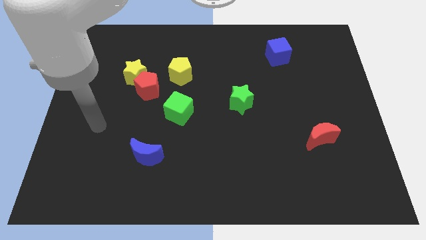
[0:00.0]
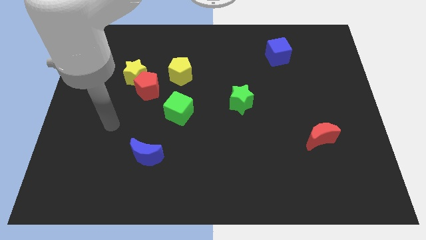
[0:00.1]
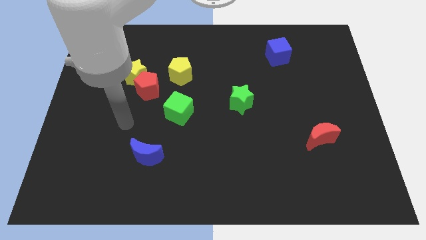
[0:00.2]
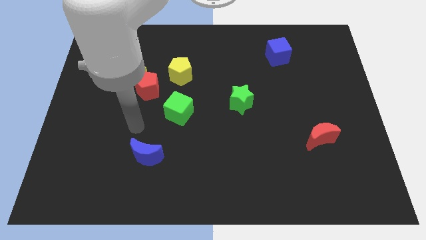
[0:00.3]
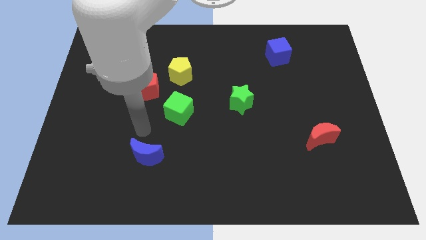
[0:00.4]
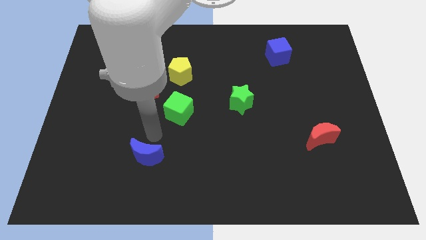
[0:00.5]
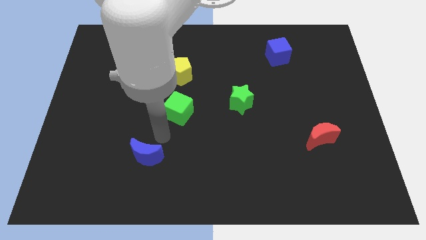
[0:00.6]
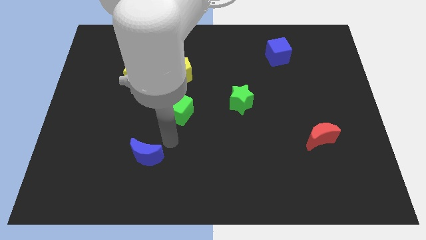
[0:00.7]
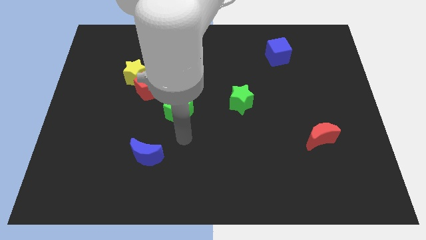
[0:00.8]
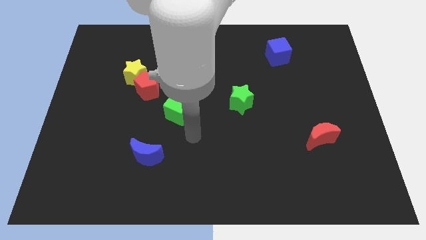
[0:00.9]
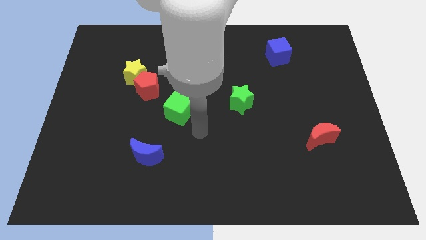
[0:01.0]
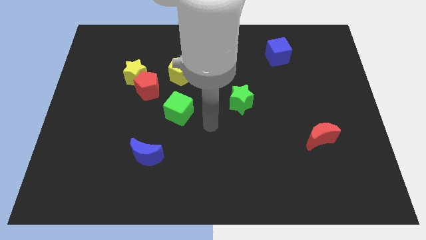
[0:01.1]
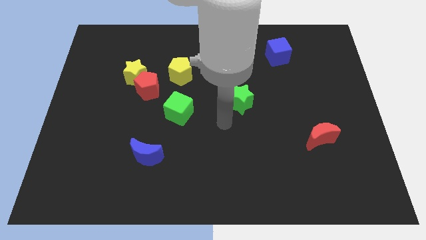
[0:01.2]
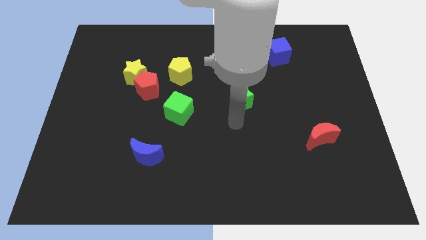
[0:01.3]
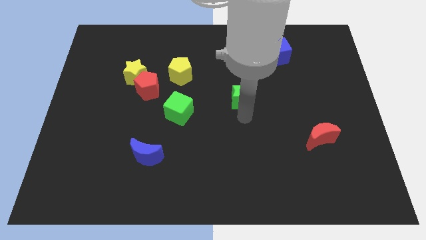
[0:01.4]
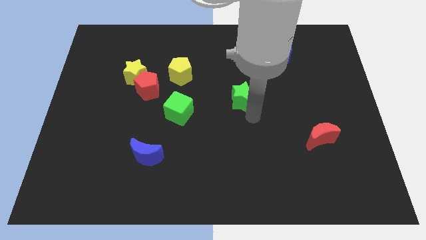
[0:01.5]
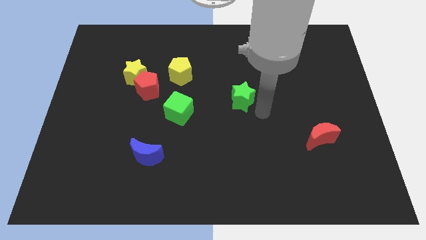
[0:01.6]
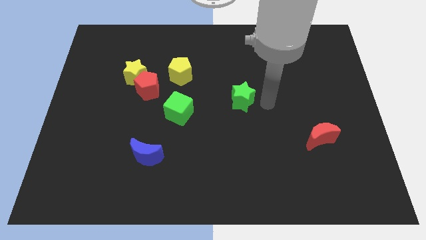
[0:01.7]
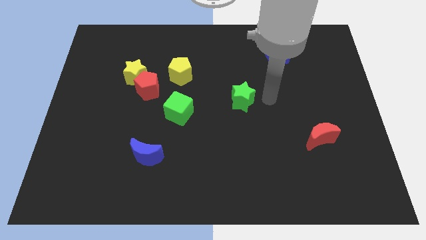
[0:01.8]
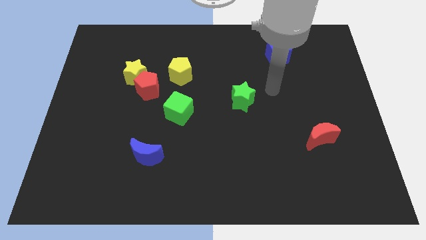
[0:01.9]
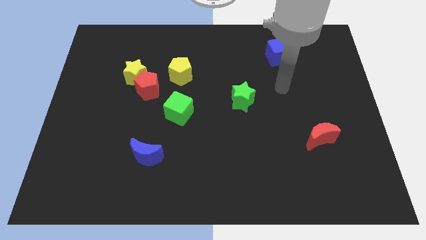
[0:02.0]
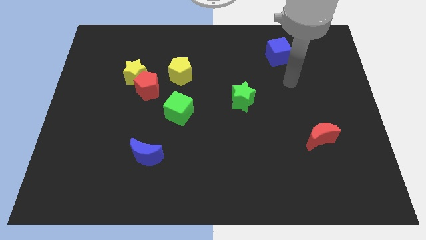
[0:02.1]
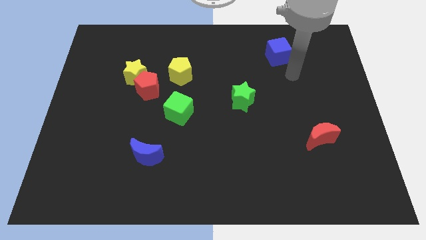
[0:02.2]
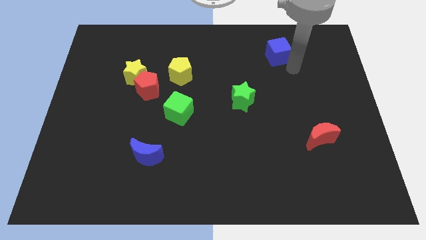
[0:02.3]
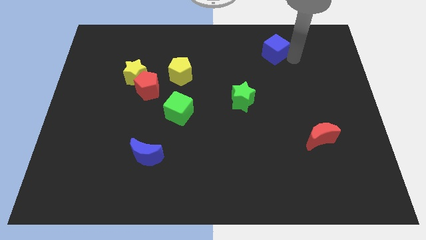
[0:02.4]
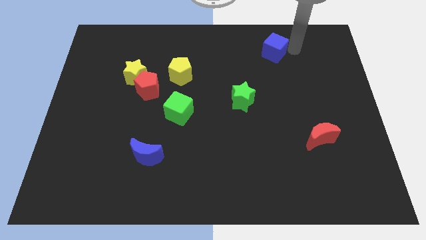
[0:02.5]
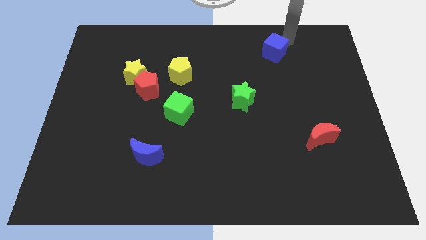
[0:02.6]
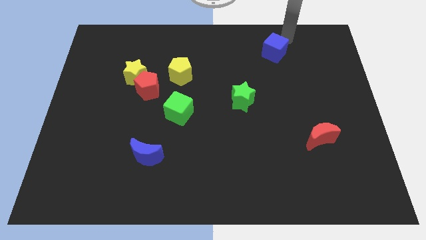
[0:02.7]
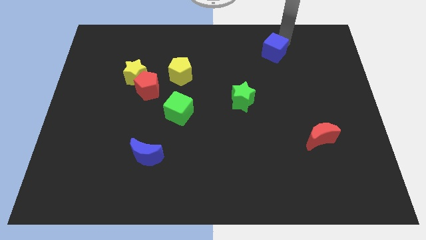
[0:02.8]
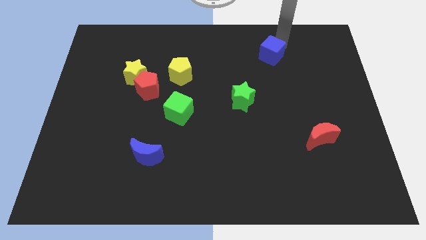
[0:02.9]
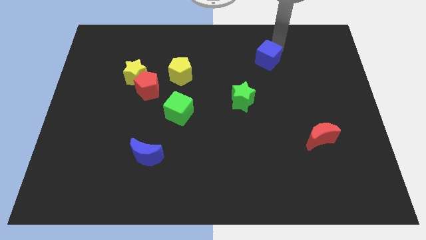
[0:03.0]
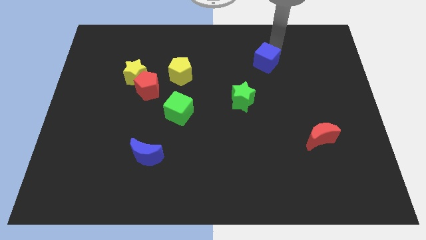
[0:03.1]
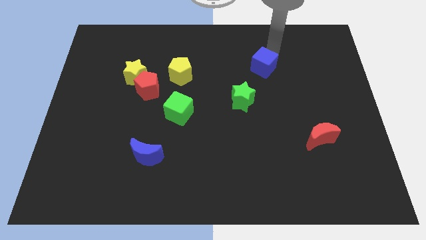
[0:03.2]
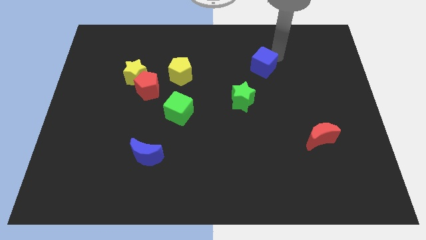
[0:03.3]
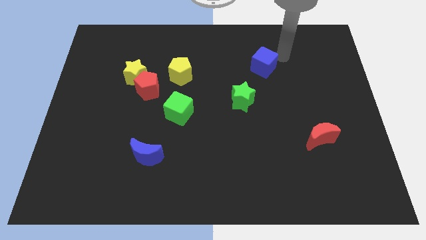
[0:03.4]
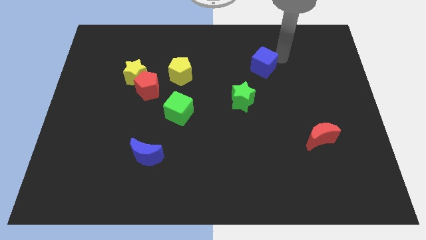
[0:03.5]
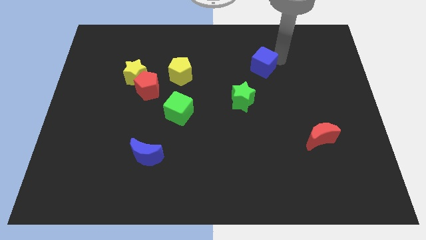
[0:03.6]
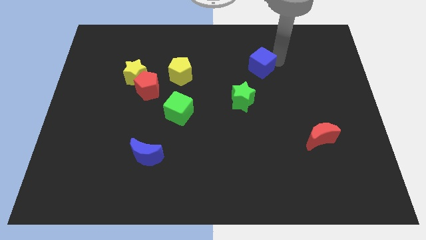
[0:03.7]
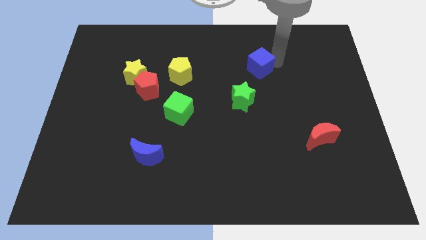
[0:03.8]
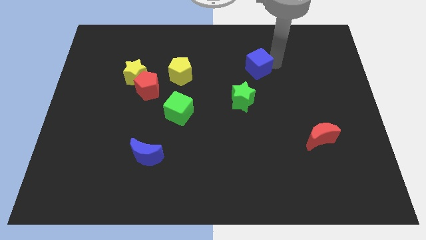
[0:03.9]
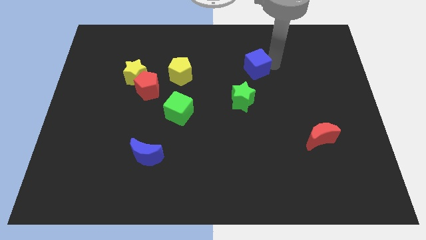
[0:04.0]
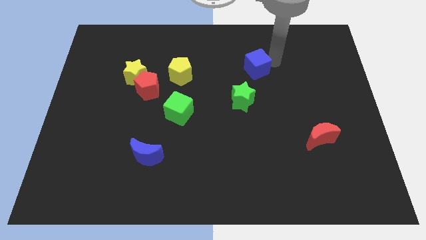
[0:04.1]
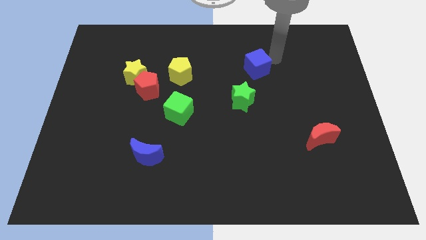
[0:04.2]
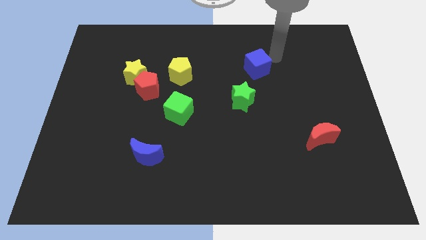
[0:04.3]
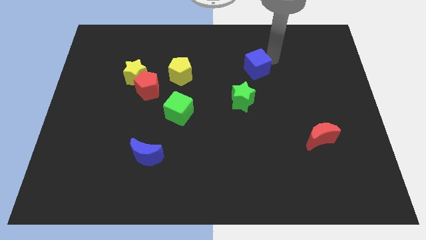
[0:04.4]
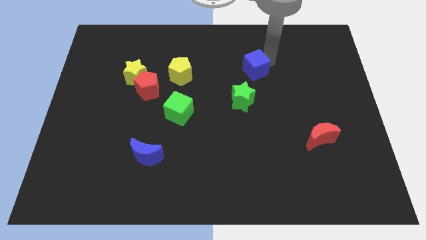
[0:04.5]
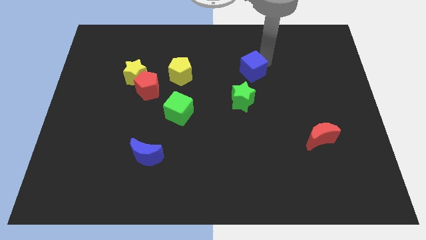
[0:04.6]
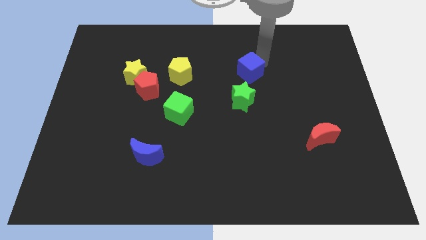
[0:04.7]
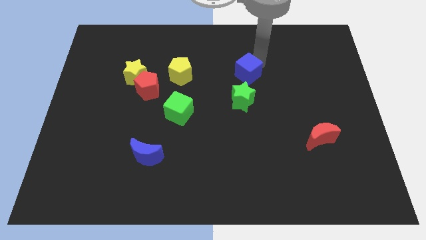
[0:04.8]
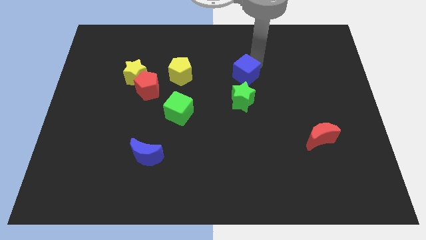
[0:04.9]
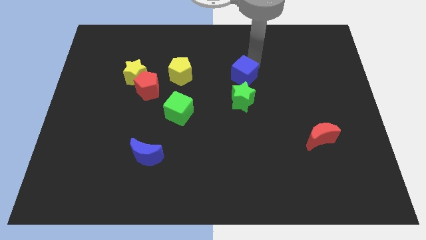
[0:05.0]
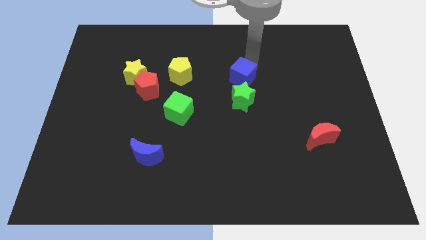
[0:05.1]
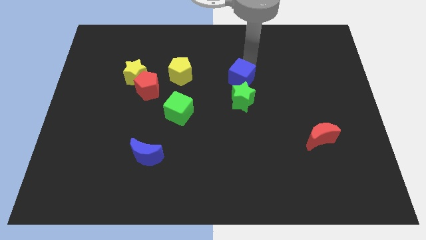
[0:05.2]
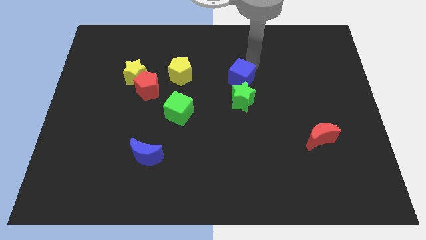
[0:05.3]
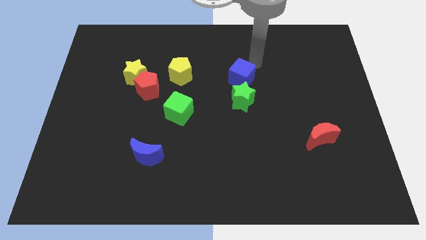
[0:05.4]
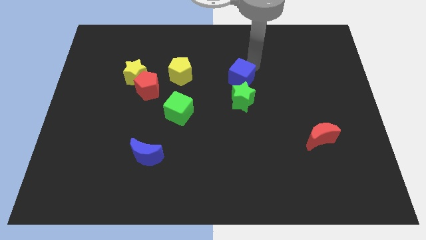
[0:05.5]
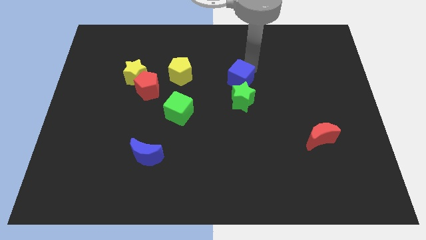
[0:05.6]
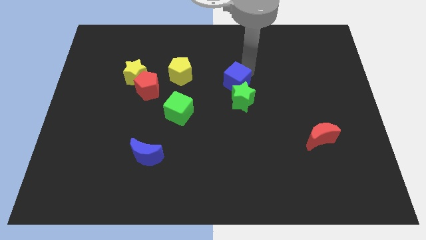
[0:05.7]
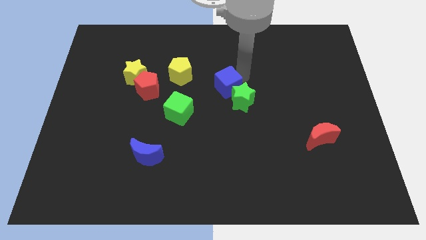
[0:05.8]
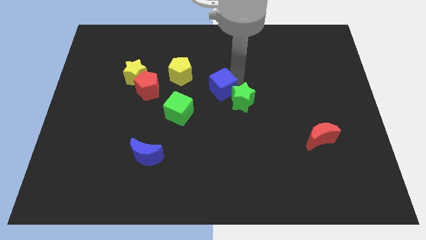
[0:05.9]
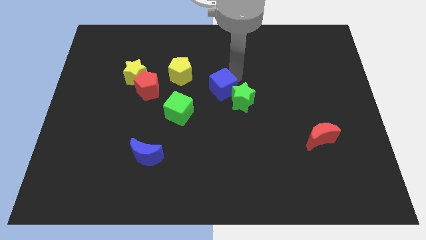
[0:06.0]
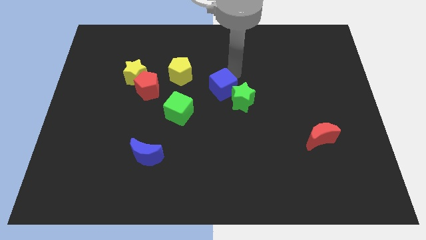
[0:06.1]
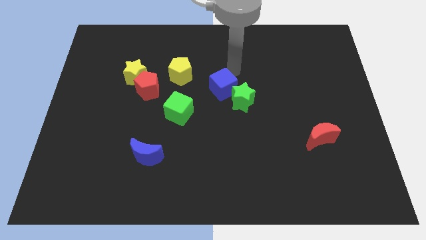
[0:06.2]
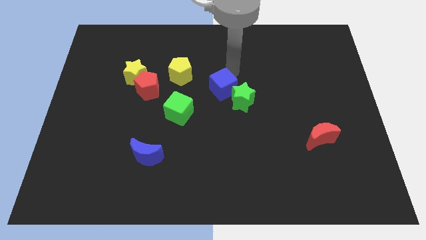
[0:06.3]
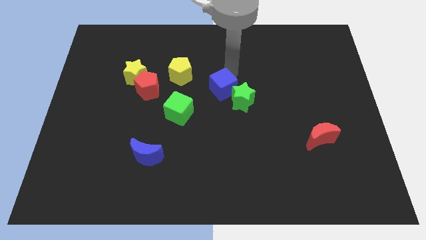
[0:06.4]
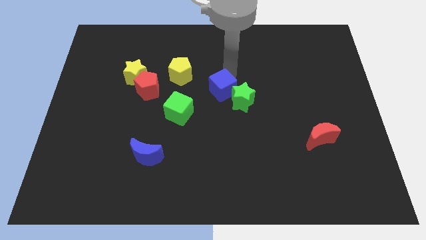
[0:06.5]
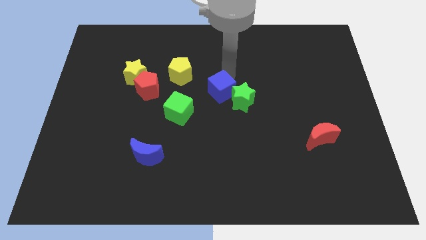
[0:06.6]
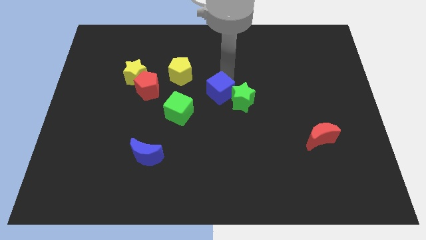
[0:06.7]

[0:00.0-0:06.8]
slide the blue cube downwards and left diagonally

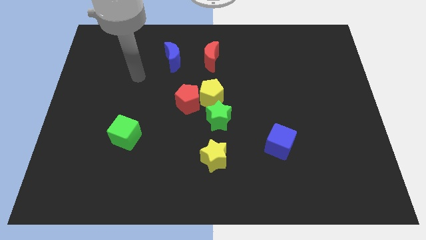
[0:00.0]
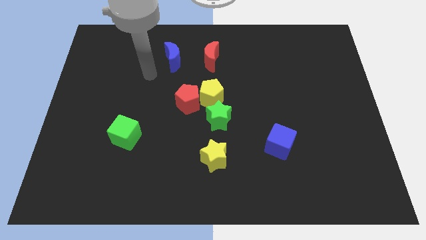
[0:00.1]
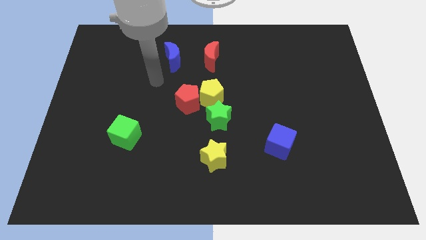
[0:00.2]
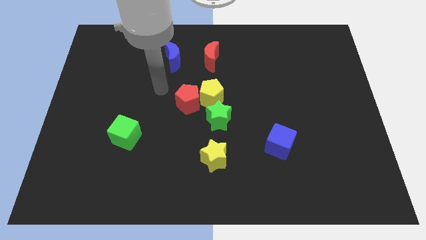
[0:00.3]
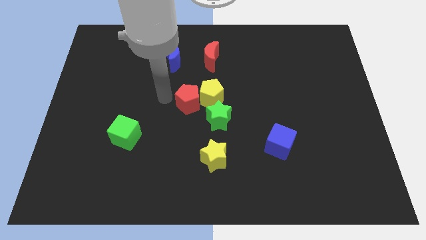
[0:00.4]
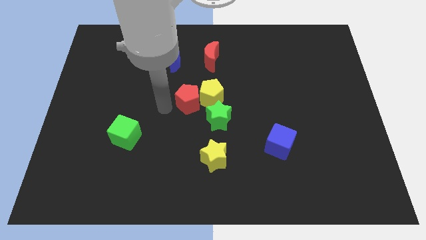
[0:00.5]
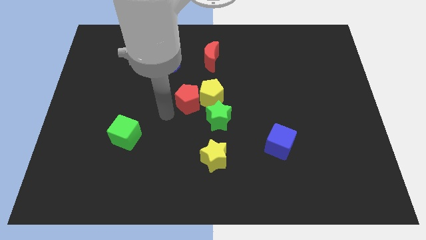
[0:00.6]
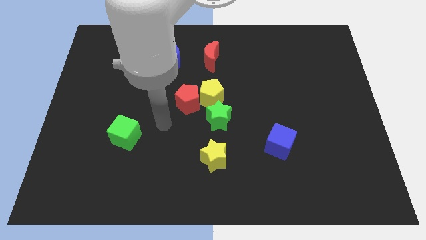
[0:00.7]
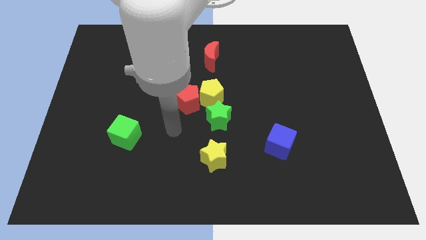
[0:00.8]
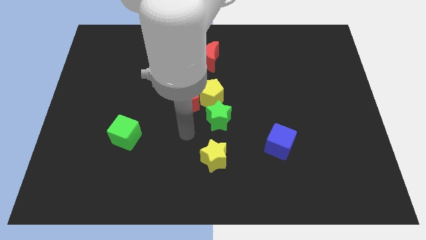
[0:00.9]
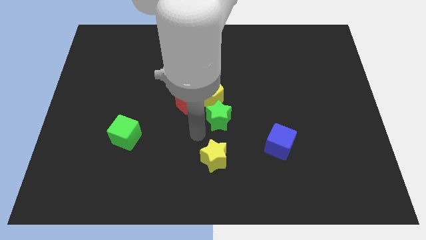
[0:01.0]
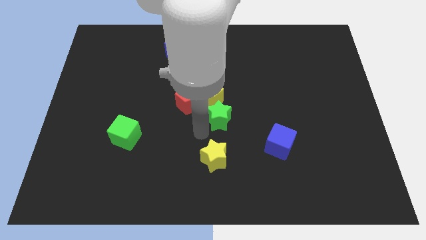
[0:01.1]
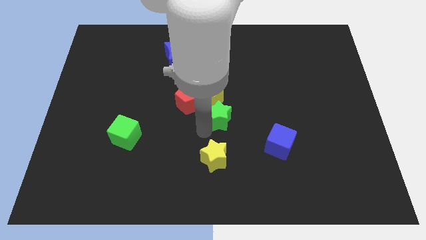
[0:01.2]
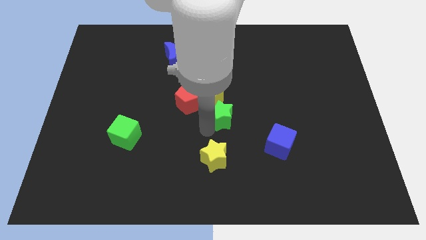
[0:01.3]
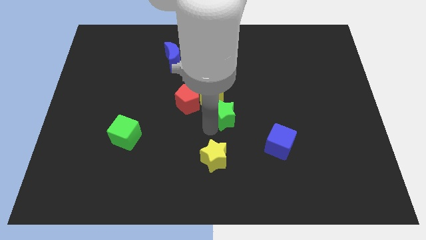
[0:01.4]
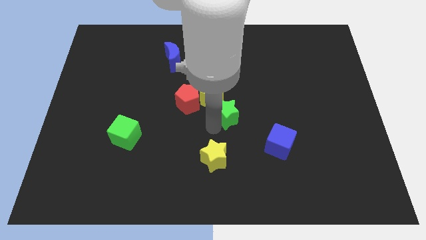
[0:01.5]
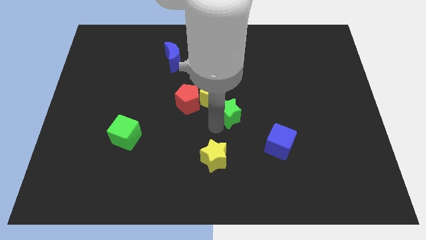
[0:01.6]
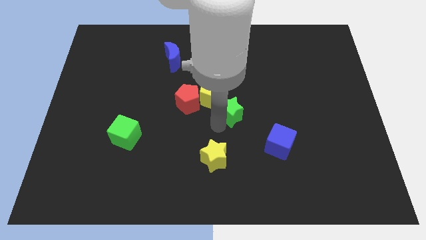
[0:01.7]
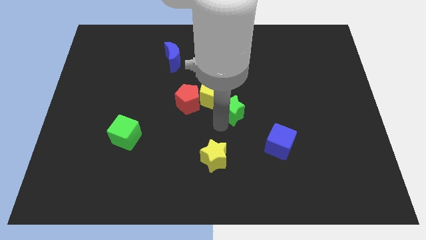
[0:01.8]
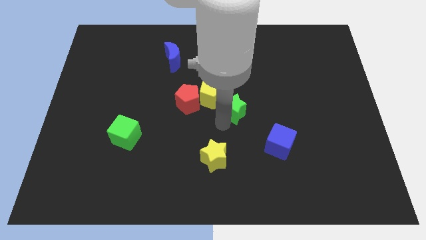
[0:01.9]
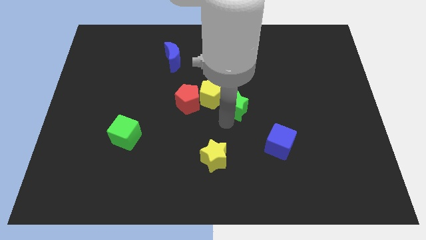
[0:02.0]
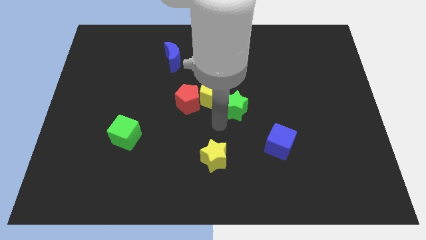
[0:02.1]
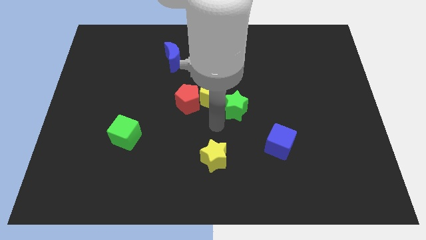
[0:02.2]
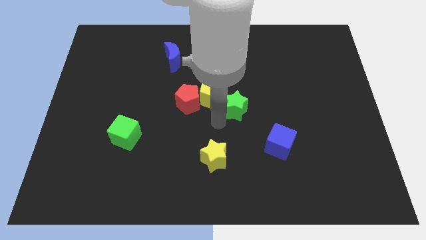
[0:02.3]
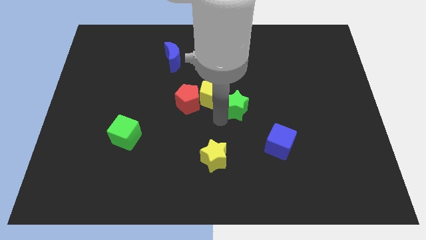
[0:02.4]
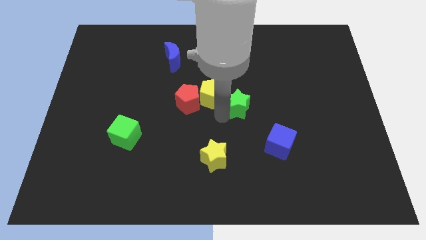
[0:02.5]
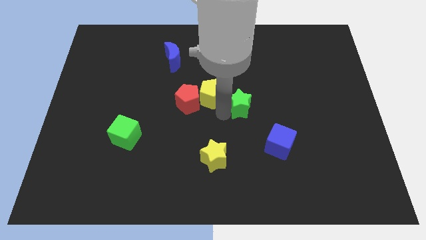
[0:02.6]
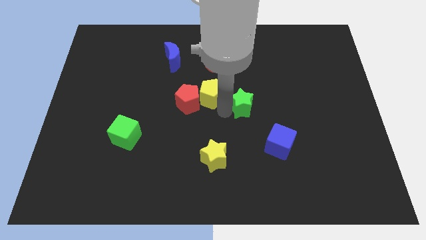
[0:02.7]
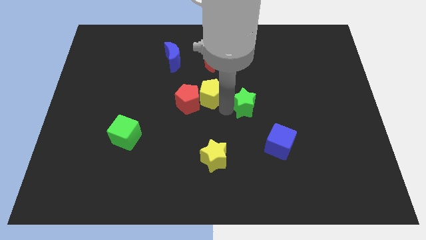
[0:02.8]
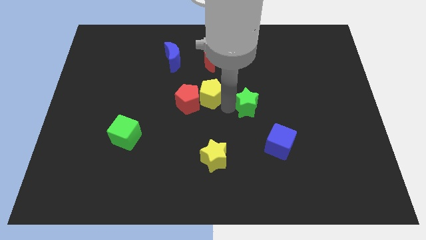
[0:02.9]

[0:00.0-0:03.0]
slide the green star up and then right a little bit
